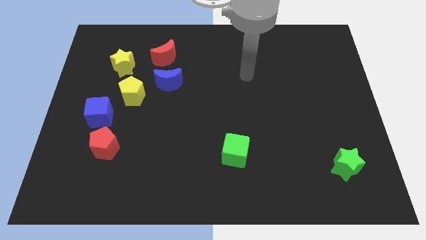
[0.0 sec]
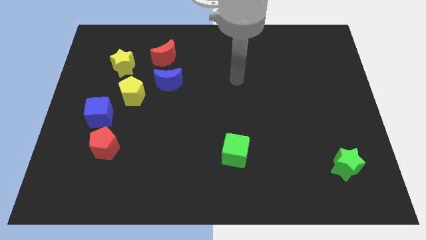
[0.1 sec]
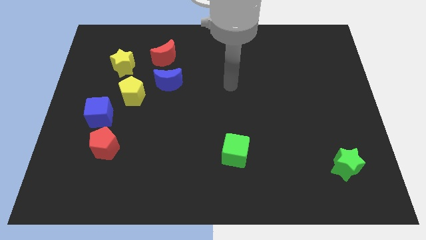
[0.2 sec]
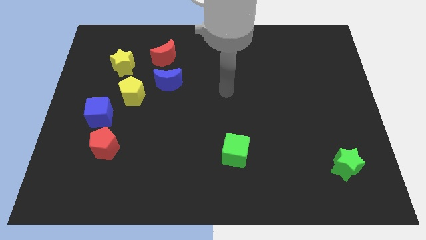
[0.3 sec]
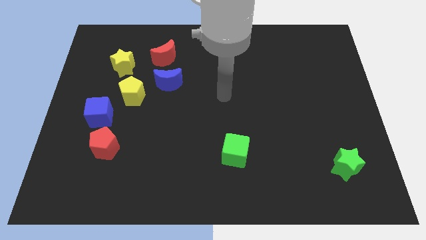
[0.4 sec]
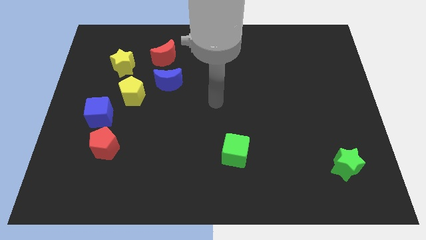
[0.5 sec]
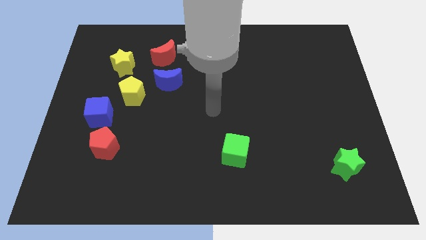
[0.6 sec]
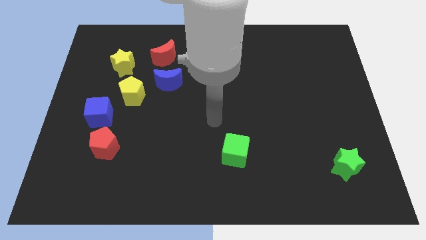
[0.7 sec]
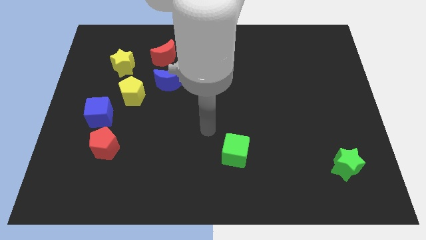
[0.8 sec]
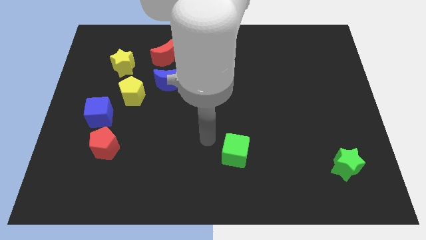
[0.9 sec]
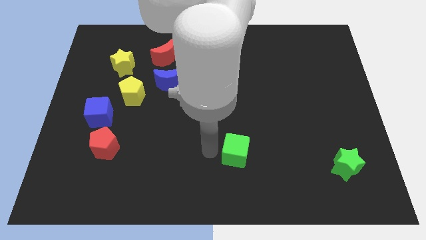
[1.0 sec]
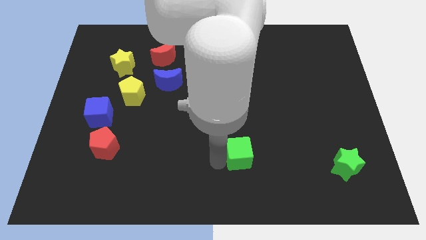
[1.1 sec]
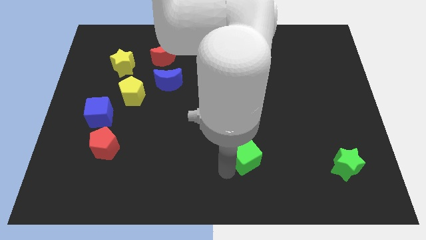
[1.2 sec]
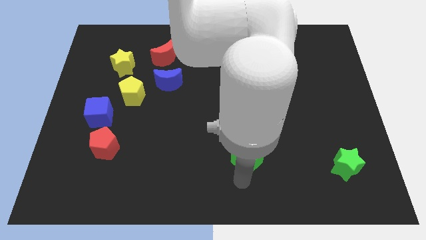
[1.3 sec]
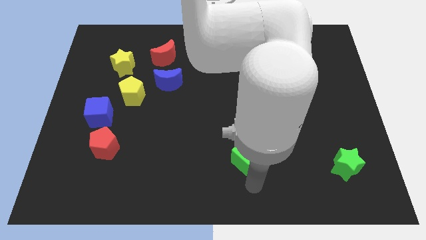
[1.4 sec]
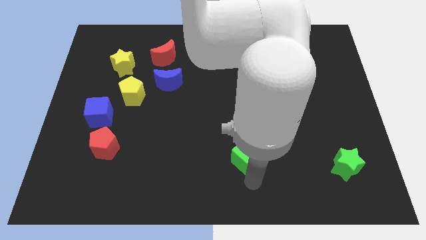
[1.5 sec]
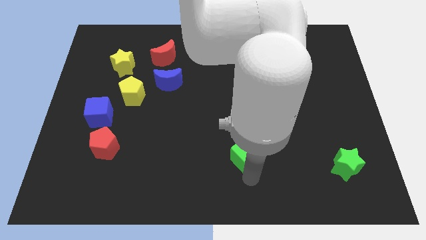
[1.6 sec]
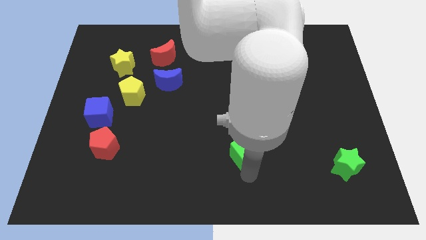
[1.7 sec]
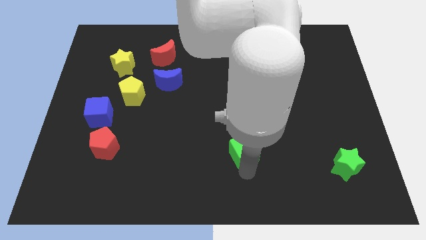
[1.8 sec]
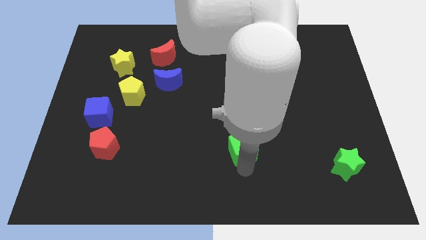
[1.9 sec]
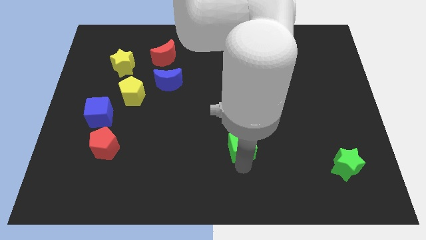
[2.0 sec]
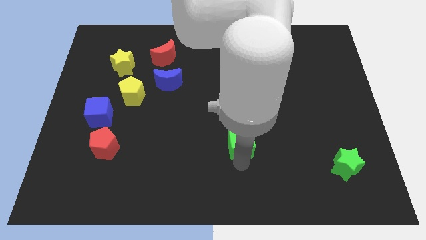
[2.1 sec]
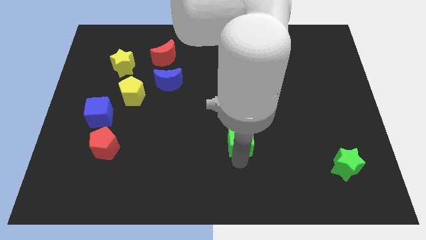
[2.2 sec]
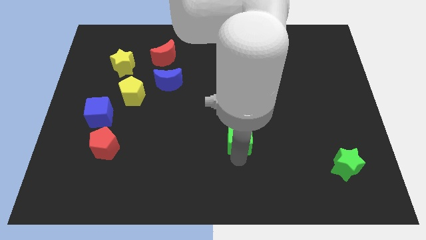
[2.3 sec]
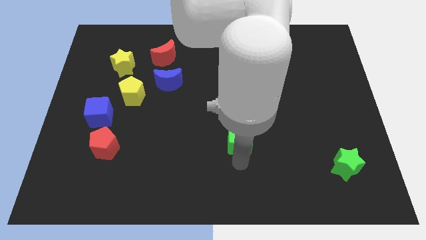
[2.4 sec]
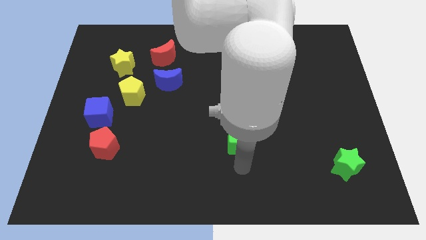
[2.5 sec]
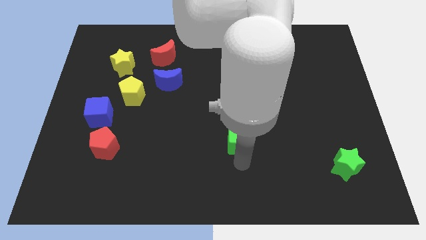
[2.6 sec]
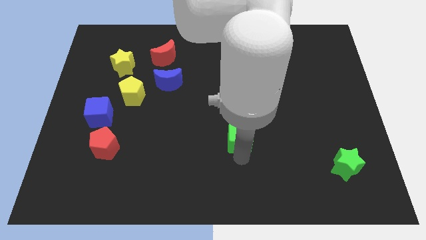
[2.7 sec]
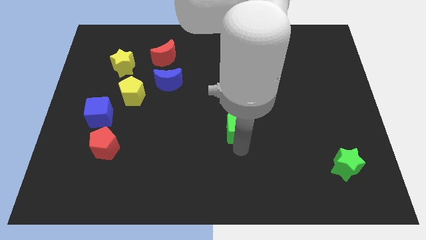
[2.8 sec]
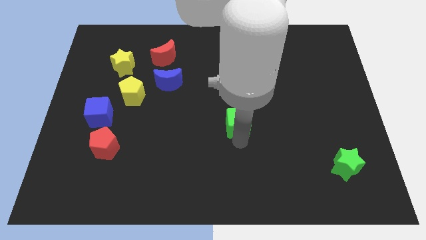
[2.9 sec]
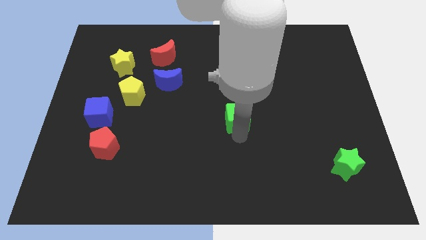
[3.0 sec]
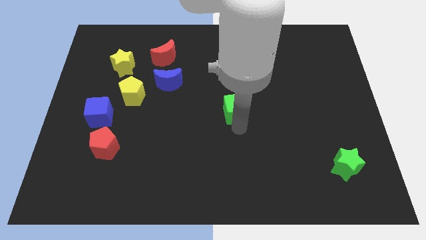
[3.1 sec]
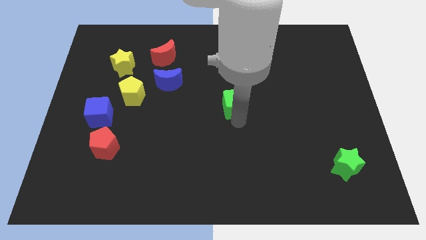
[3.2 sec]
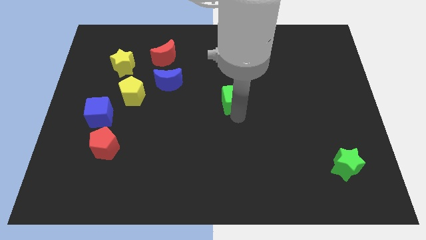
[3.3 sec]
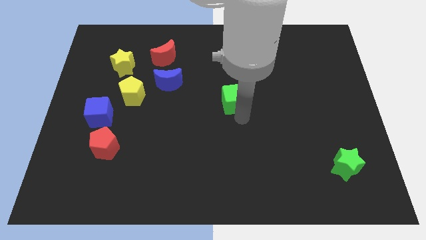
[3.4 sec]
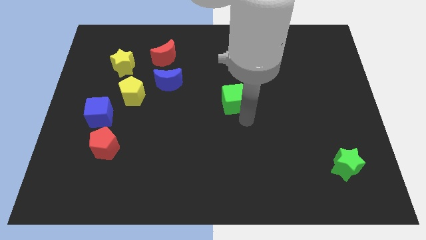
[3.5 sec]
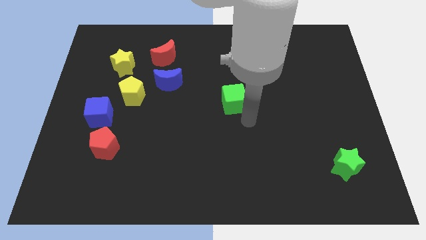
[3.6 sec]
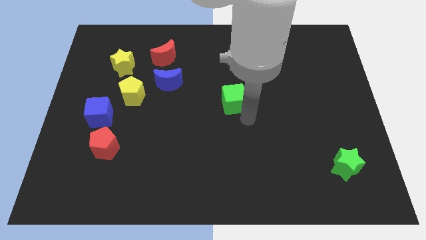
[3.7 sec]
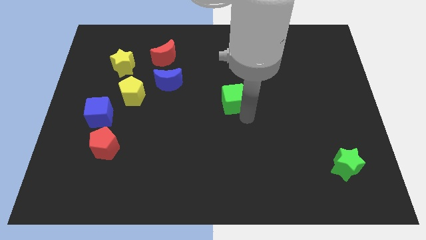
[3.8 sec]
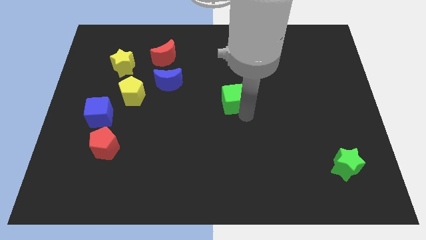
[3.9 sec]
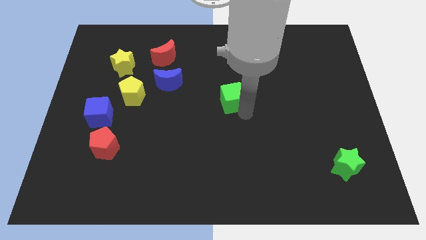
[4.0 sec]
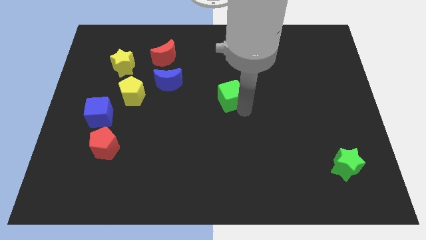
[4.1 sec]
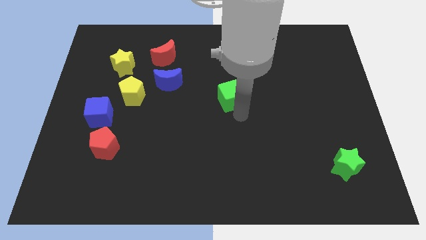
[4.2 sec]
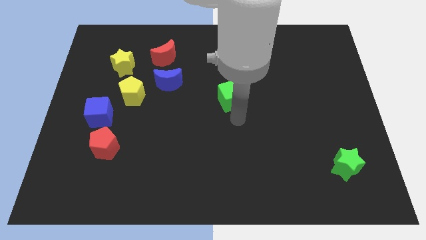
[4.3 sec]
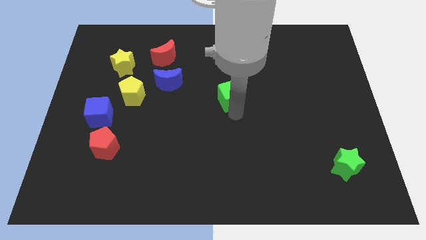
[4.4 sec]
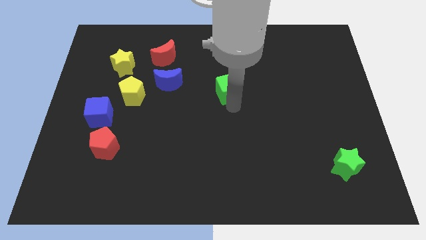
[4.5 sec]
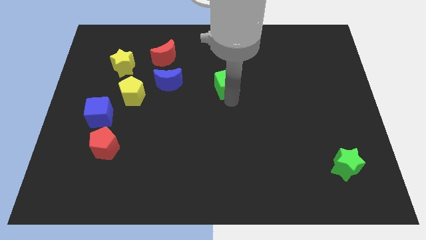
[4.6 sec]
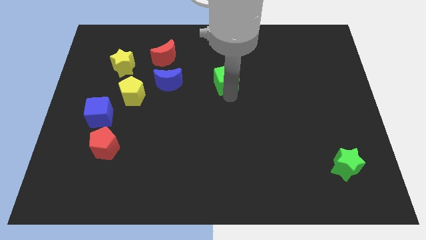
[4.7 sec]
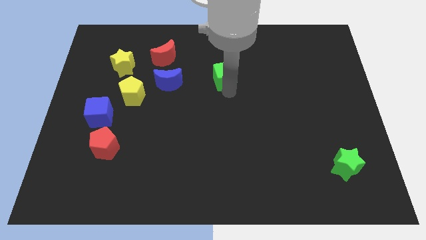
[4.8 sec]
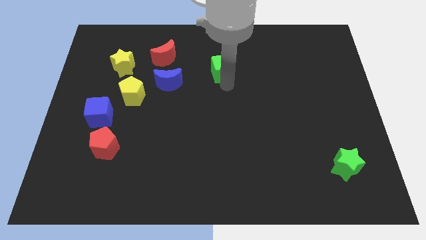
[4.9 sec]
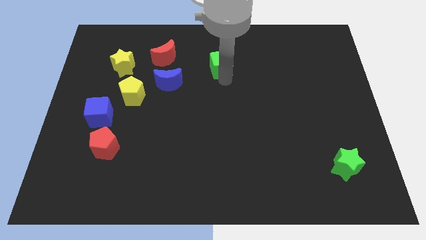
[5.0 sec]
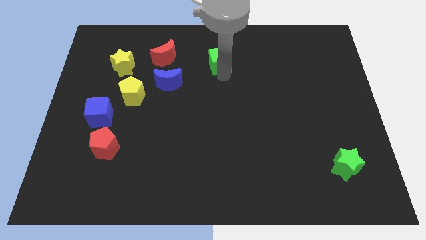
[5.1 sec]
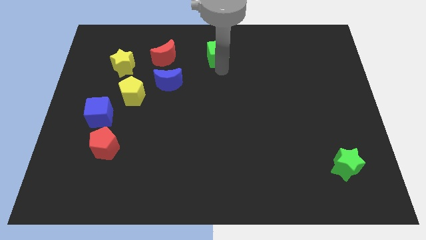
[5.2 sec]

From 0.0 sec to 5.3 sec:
push the green cube to the top

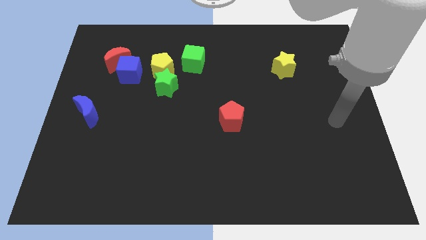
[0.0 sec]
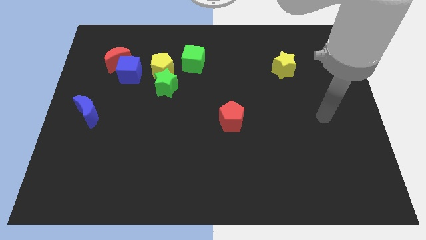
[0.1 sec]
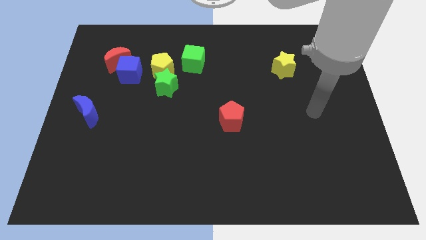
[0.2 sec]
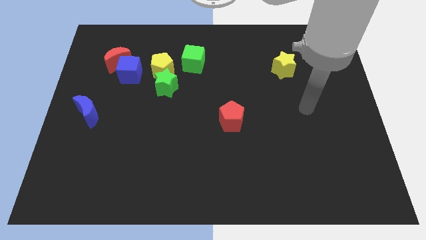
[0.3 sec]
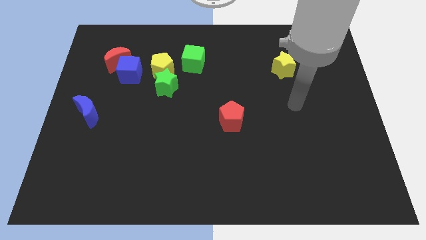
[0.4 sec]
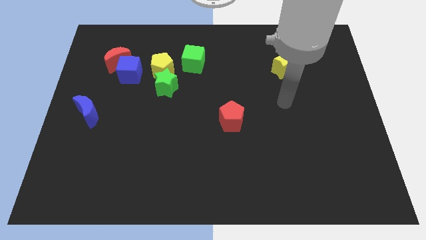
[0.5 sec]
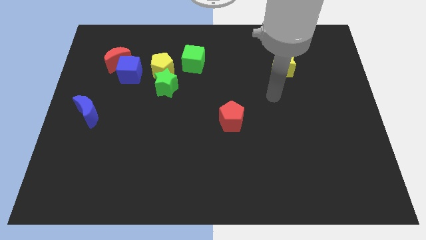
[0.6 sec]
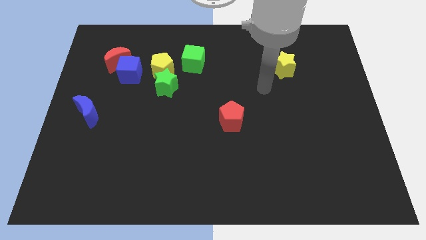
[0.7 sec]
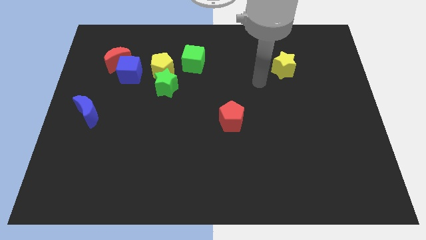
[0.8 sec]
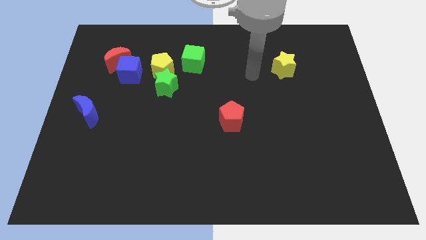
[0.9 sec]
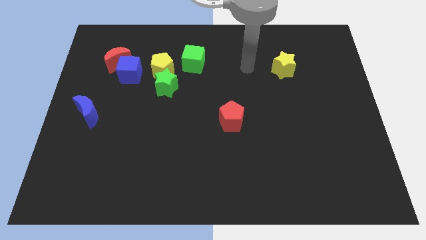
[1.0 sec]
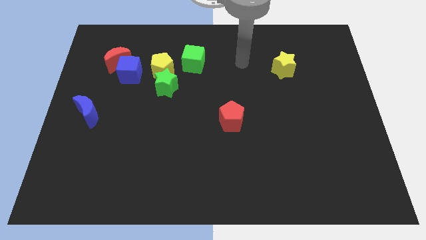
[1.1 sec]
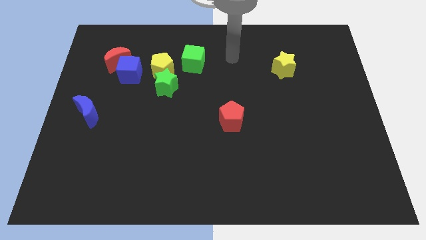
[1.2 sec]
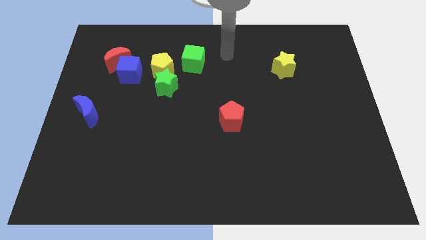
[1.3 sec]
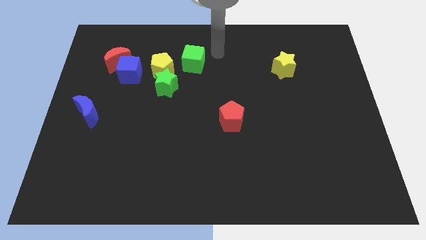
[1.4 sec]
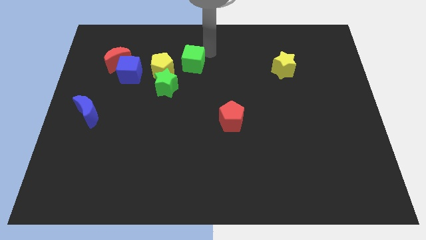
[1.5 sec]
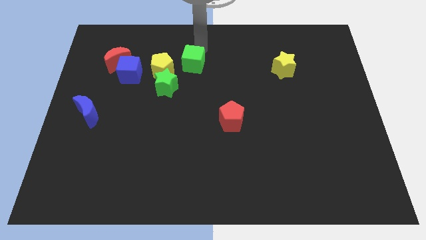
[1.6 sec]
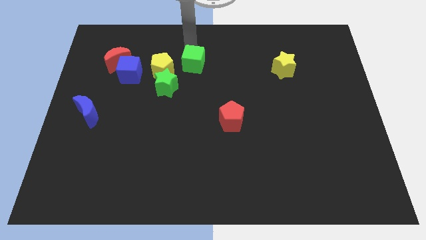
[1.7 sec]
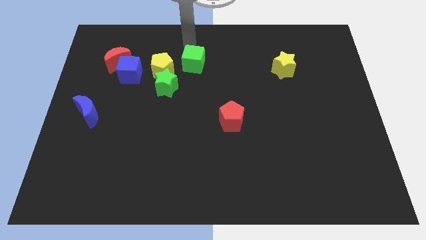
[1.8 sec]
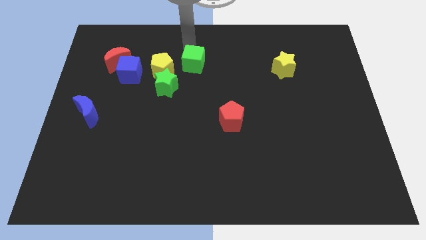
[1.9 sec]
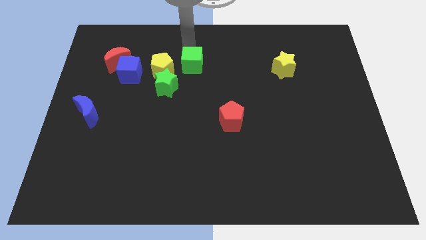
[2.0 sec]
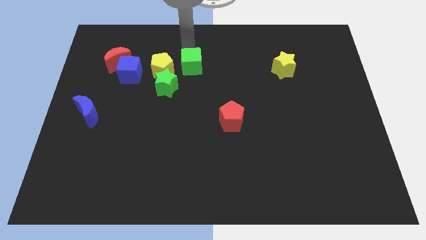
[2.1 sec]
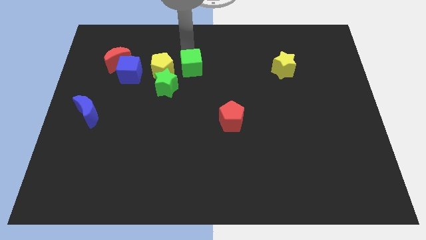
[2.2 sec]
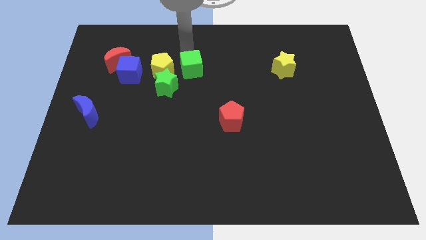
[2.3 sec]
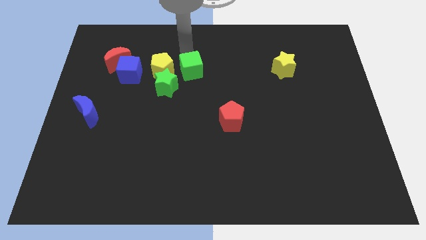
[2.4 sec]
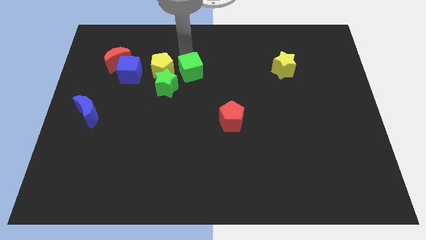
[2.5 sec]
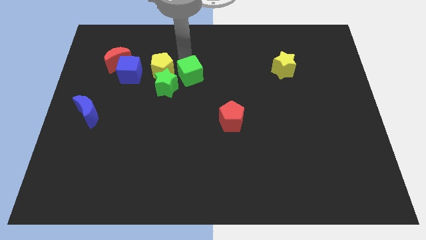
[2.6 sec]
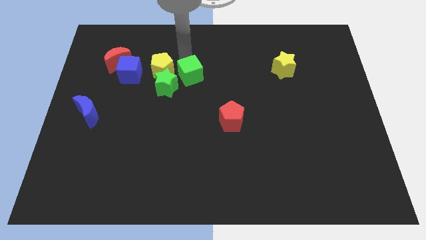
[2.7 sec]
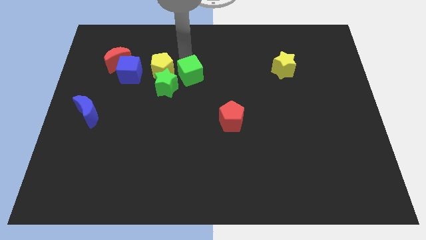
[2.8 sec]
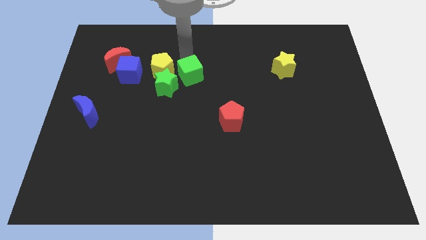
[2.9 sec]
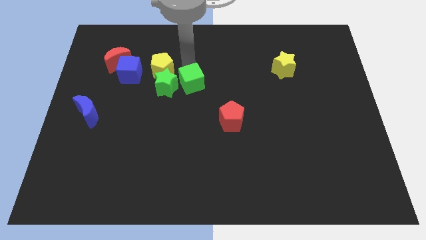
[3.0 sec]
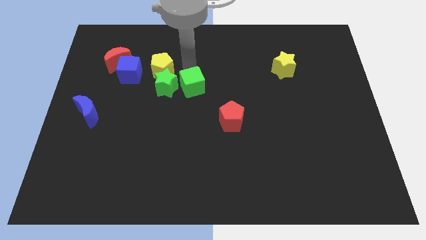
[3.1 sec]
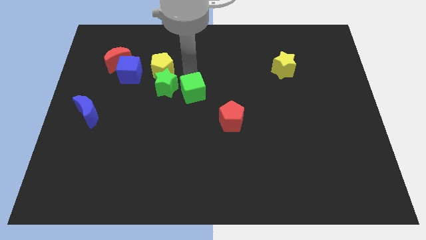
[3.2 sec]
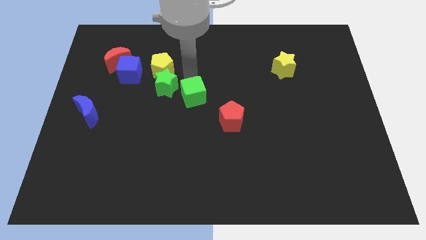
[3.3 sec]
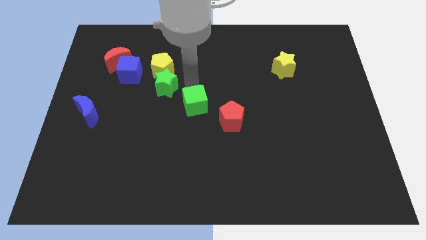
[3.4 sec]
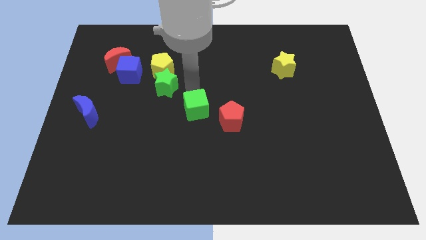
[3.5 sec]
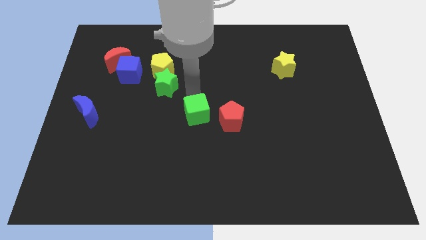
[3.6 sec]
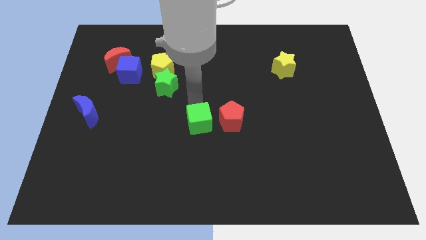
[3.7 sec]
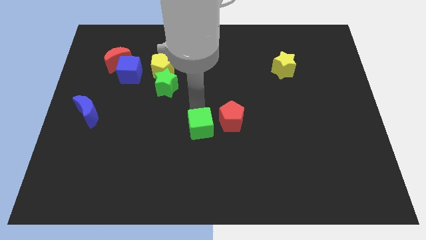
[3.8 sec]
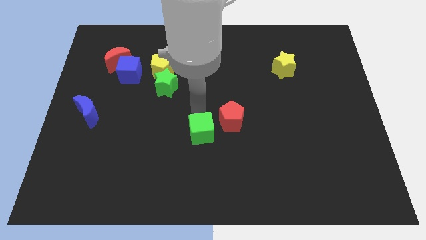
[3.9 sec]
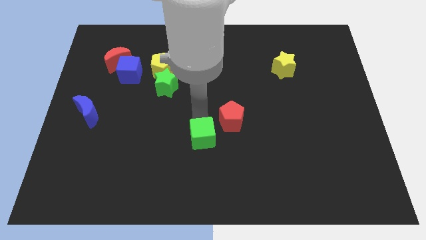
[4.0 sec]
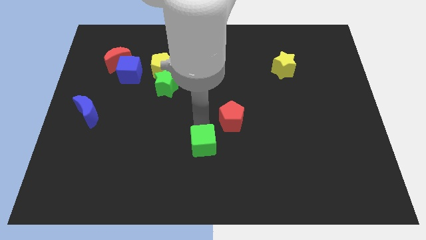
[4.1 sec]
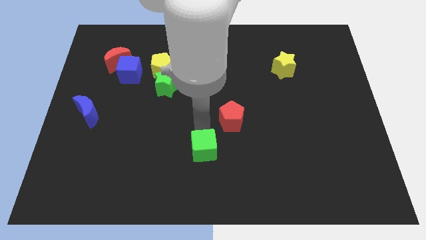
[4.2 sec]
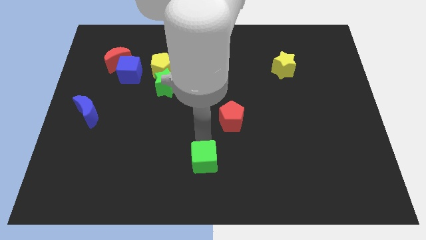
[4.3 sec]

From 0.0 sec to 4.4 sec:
push the green cube to the bottom side
